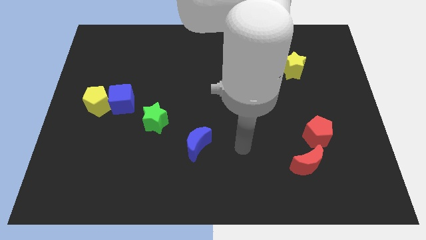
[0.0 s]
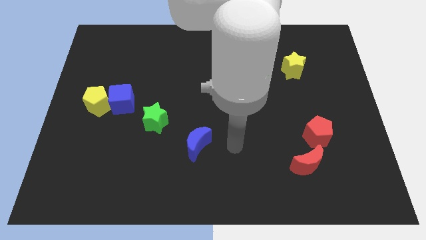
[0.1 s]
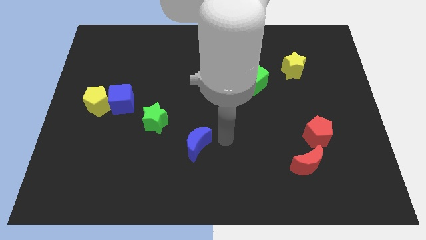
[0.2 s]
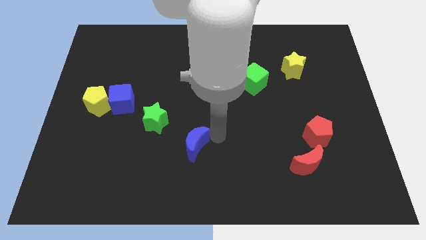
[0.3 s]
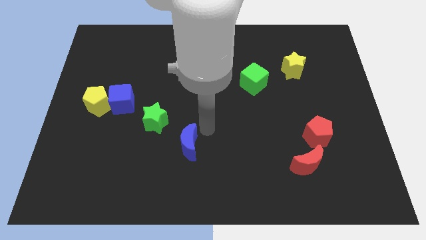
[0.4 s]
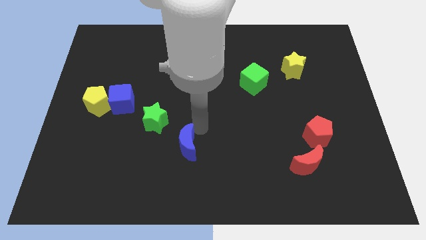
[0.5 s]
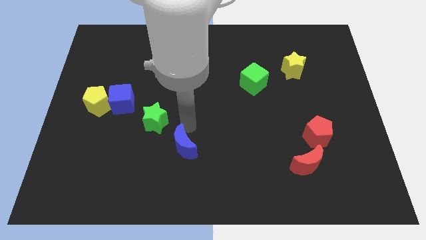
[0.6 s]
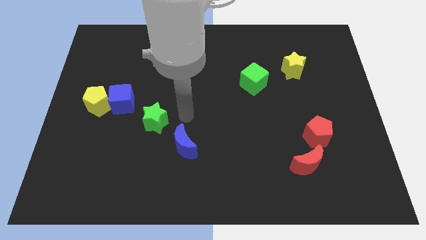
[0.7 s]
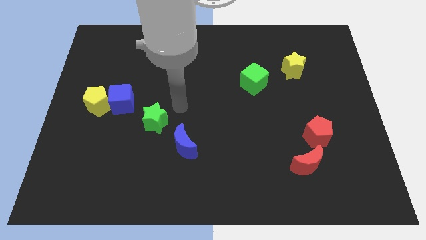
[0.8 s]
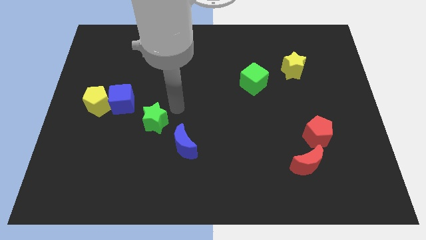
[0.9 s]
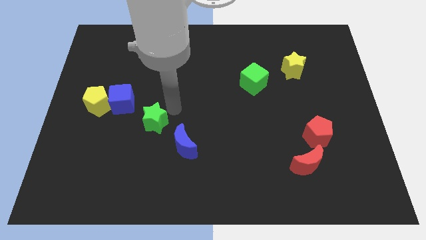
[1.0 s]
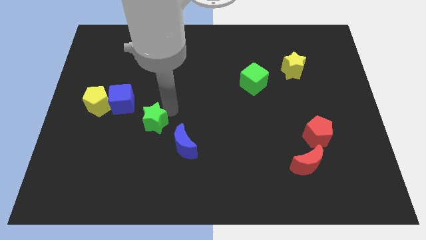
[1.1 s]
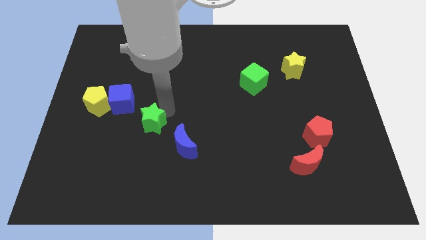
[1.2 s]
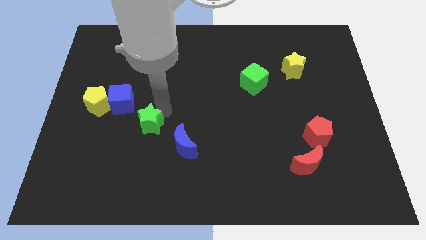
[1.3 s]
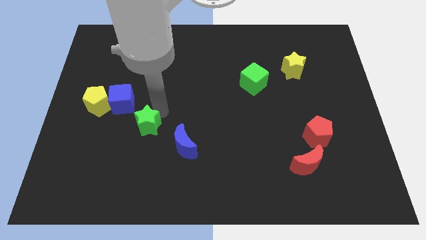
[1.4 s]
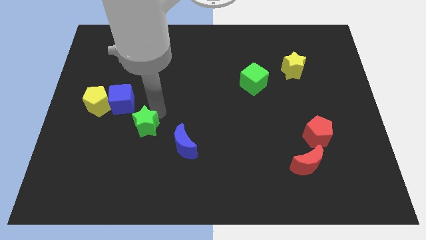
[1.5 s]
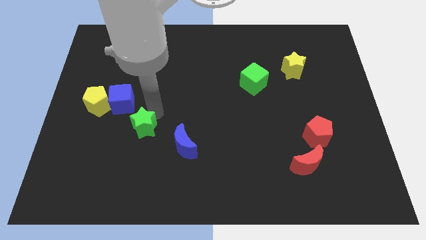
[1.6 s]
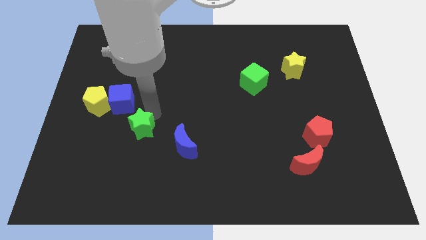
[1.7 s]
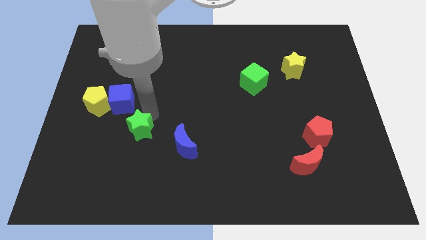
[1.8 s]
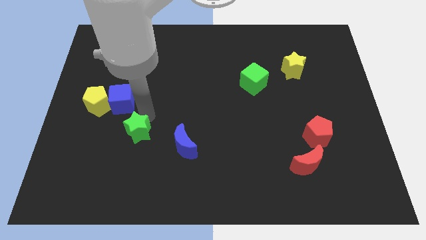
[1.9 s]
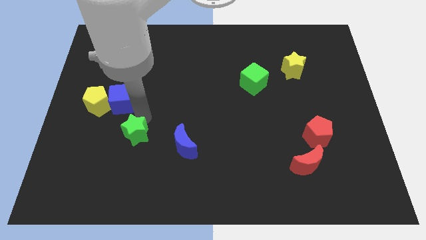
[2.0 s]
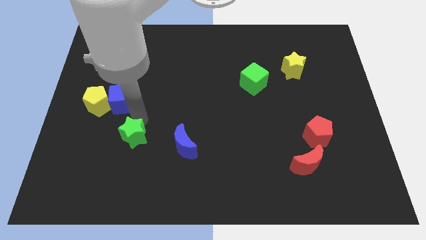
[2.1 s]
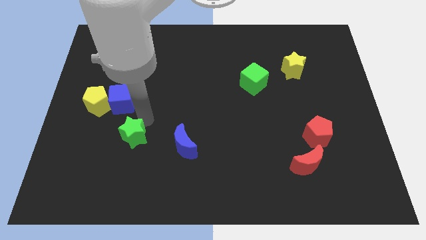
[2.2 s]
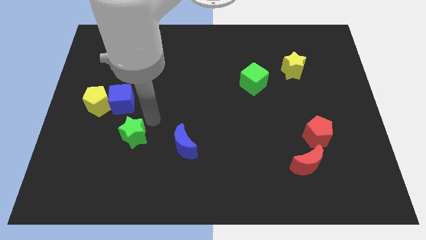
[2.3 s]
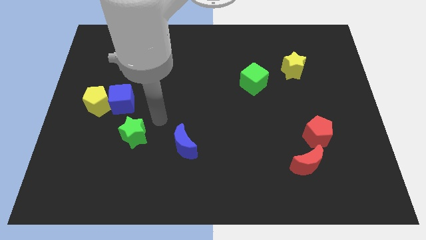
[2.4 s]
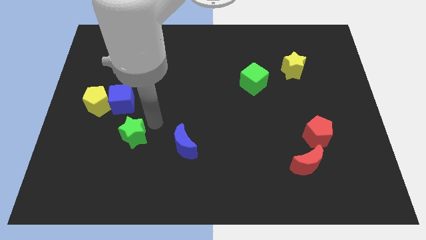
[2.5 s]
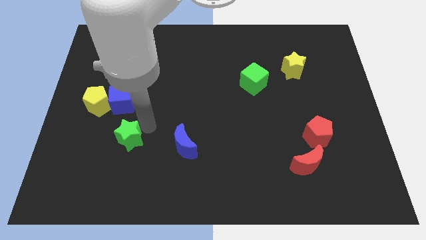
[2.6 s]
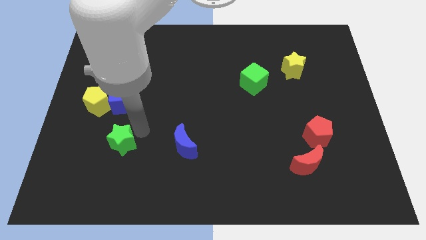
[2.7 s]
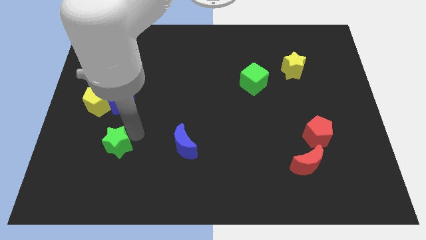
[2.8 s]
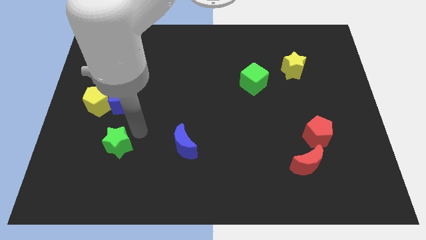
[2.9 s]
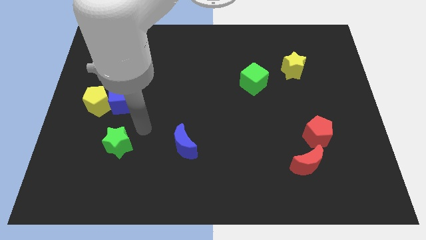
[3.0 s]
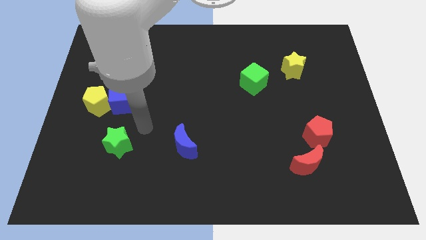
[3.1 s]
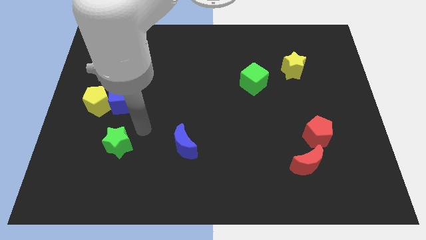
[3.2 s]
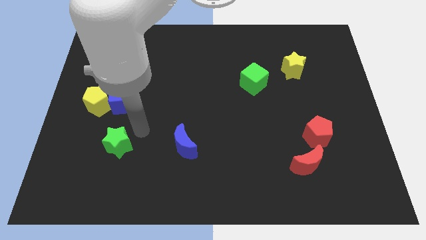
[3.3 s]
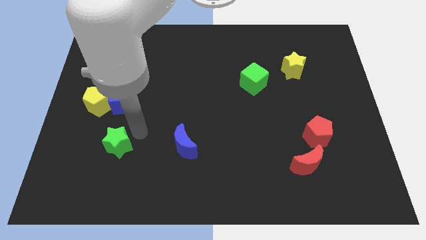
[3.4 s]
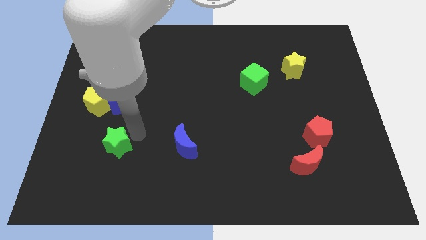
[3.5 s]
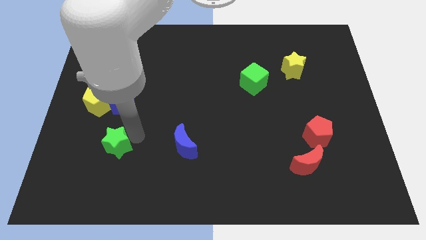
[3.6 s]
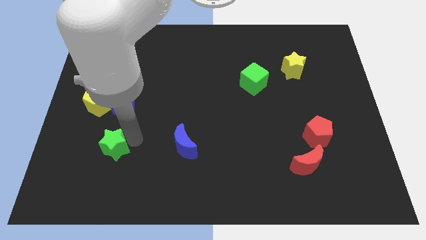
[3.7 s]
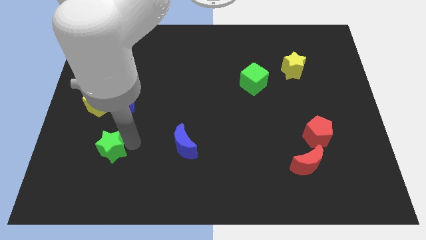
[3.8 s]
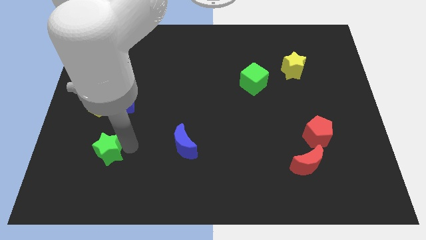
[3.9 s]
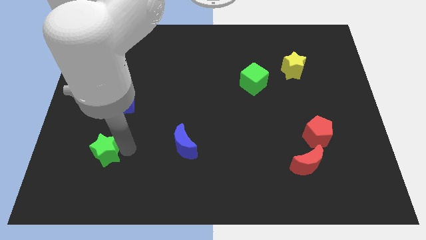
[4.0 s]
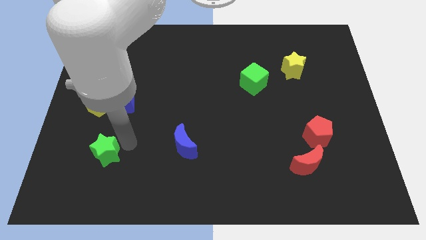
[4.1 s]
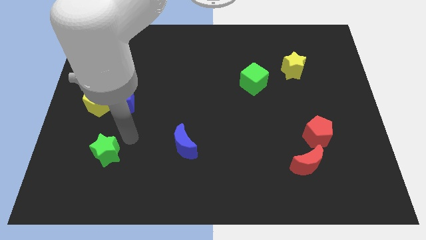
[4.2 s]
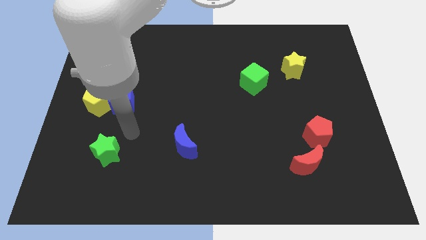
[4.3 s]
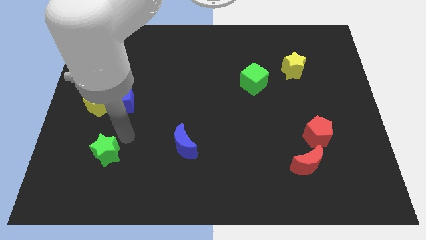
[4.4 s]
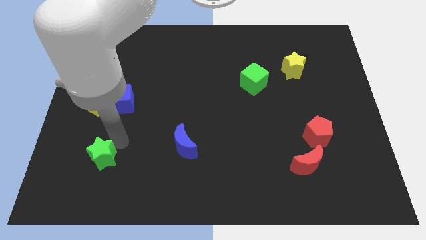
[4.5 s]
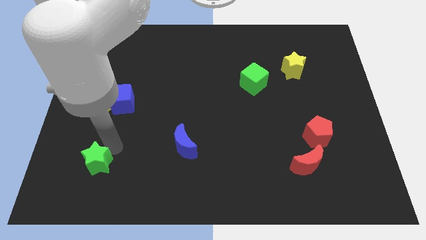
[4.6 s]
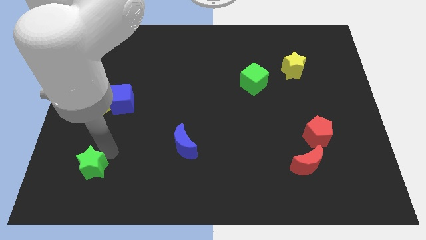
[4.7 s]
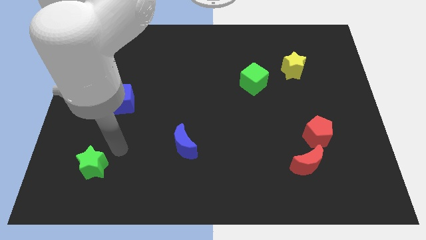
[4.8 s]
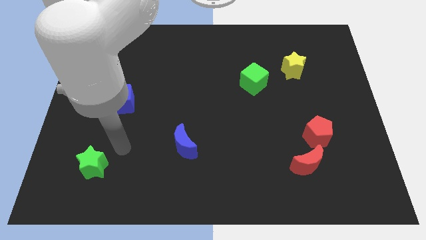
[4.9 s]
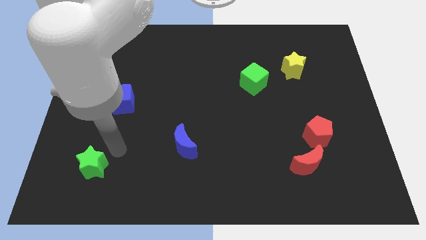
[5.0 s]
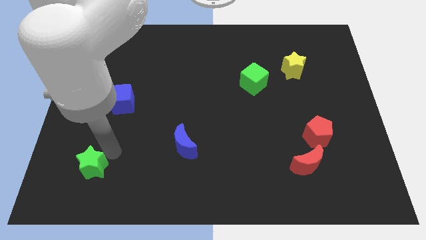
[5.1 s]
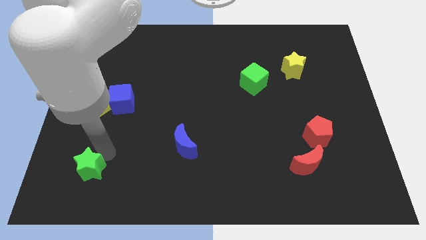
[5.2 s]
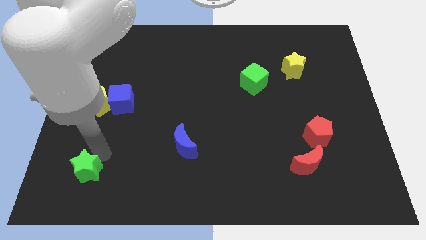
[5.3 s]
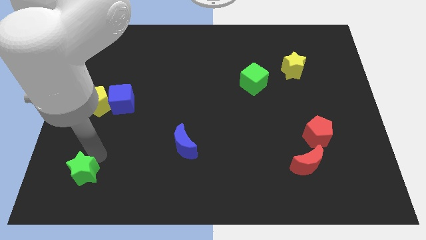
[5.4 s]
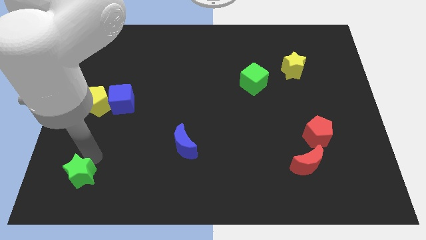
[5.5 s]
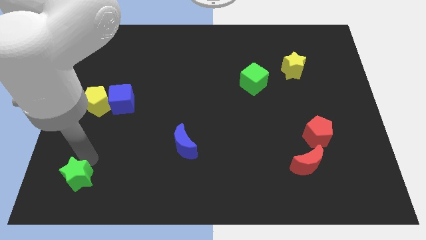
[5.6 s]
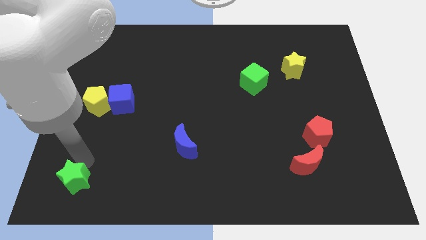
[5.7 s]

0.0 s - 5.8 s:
put the green star to the lower left corner
